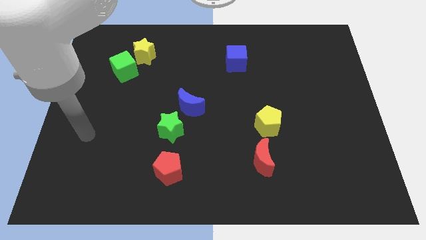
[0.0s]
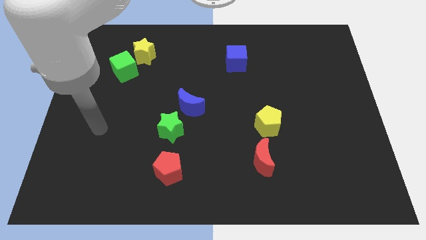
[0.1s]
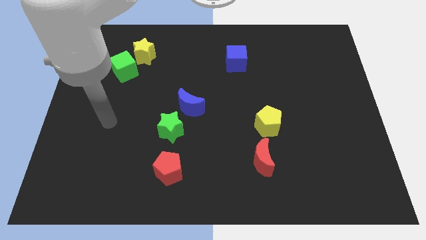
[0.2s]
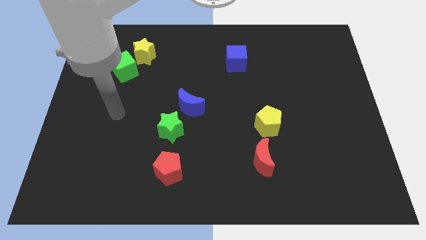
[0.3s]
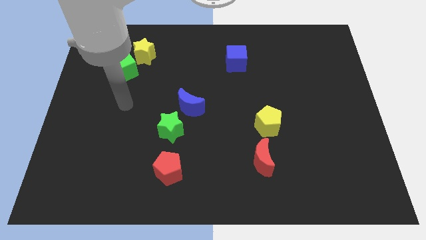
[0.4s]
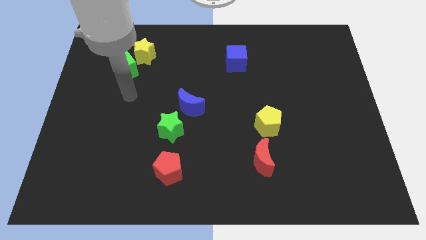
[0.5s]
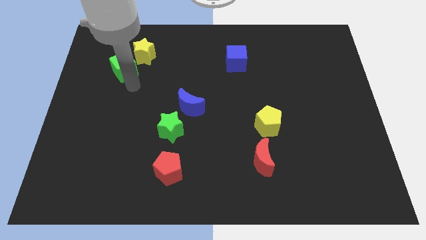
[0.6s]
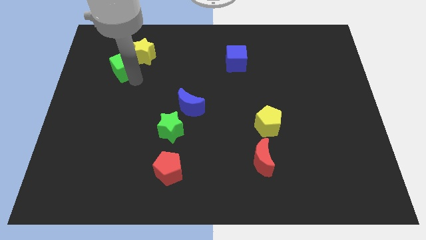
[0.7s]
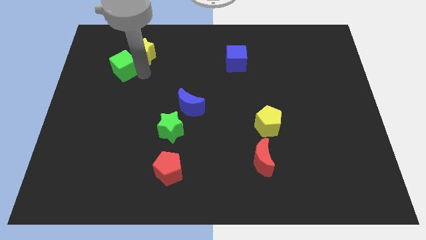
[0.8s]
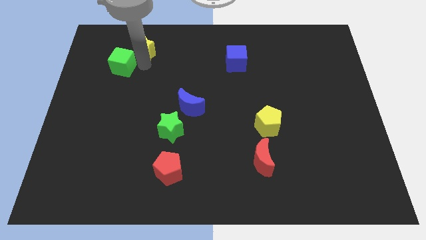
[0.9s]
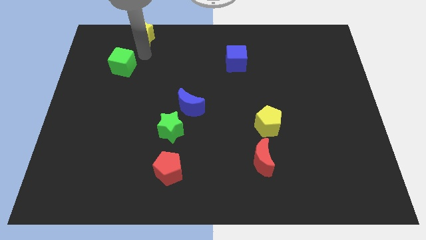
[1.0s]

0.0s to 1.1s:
pull the green cube apart from the yellow star

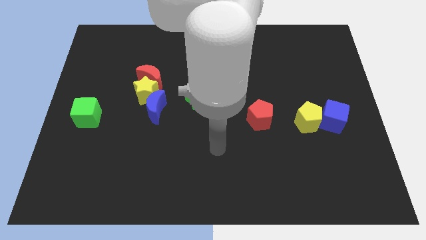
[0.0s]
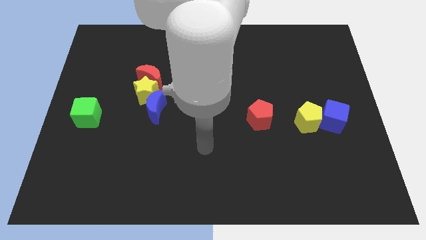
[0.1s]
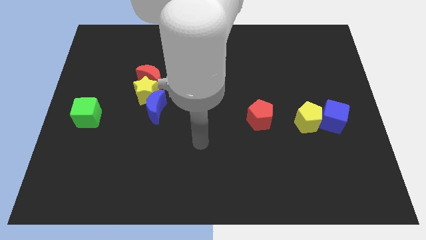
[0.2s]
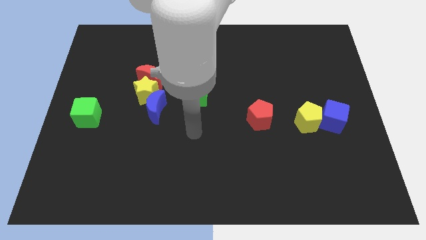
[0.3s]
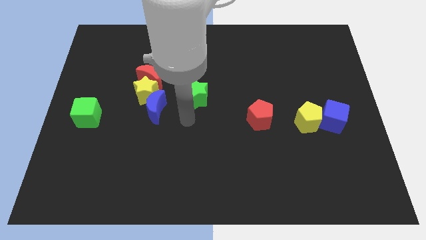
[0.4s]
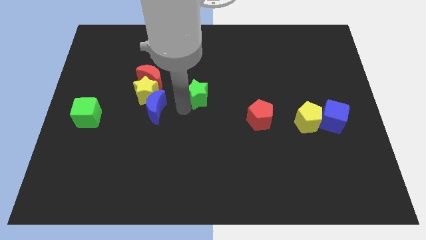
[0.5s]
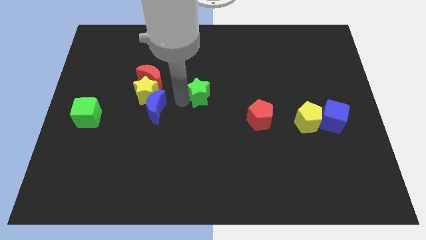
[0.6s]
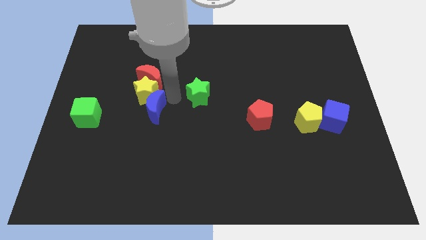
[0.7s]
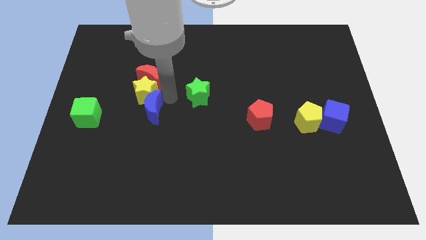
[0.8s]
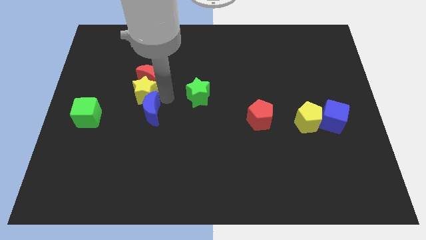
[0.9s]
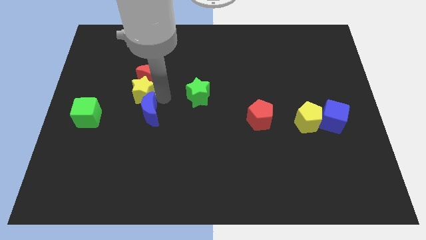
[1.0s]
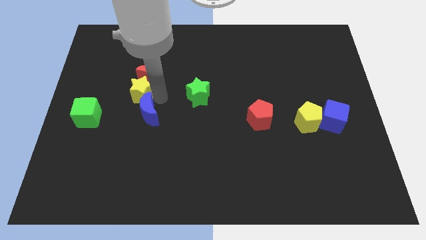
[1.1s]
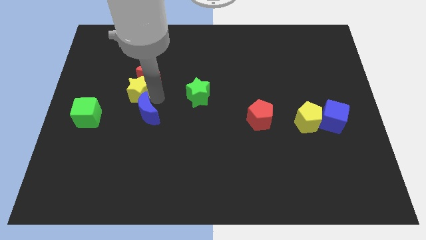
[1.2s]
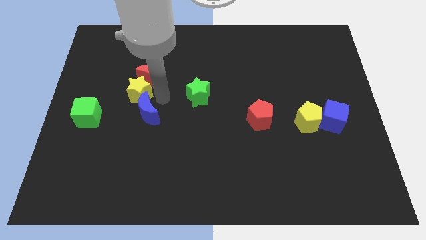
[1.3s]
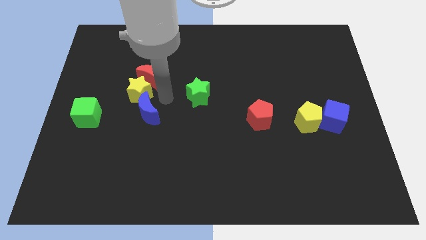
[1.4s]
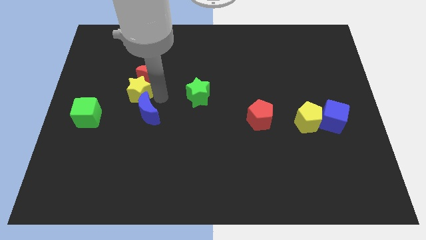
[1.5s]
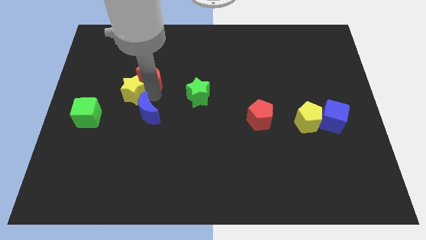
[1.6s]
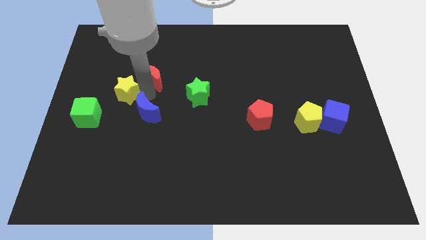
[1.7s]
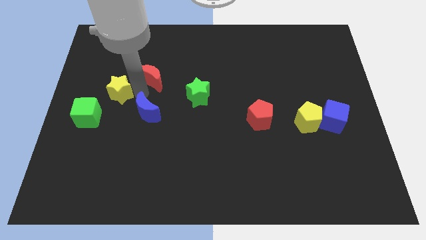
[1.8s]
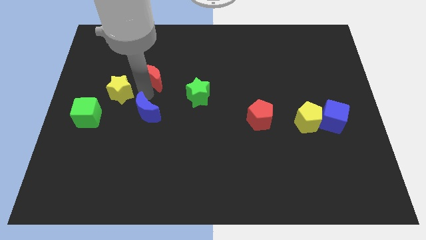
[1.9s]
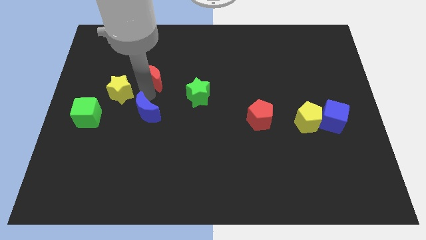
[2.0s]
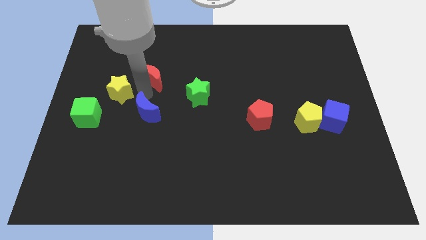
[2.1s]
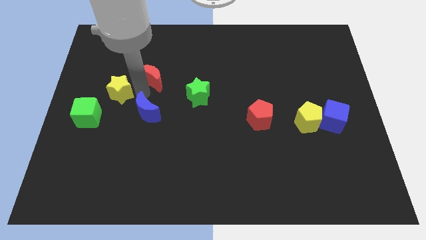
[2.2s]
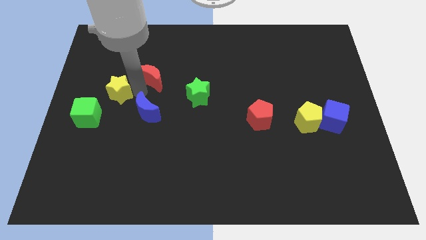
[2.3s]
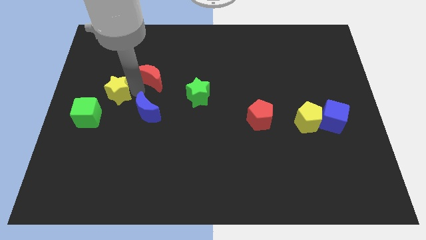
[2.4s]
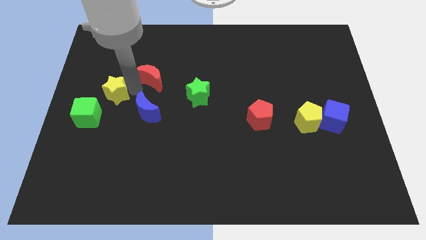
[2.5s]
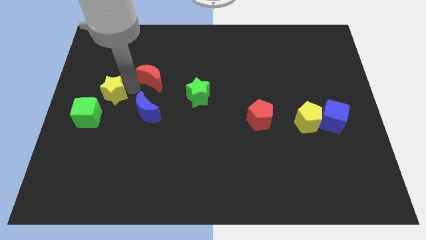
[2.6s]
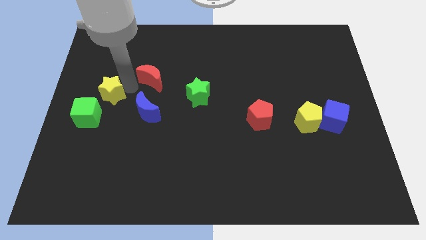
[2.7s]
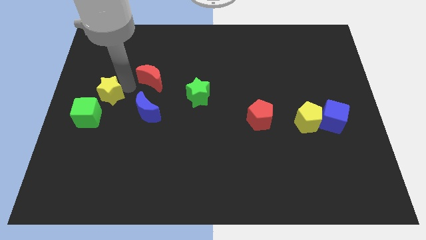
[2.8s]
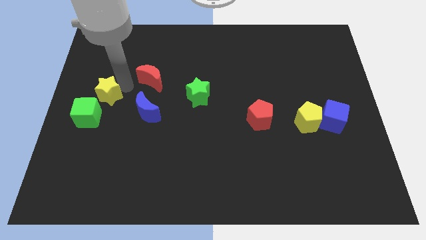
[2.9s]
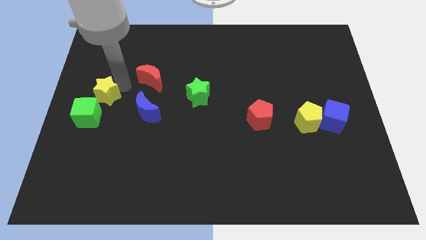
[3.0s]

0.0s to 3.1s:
separate the yellow star from the red moon and blue moon

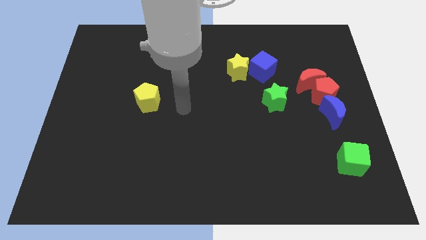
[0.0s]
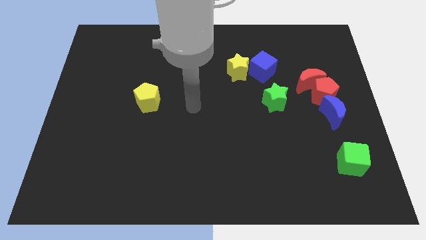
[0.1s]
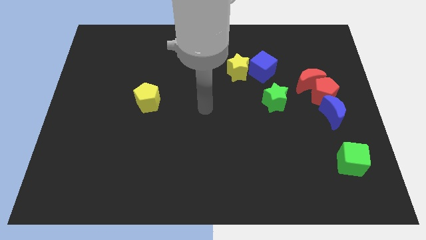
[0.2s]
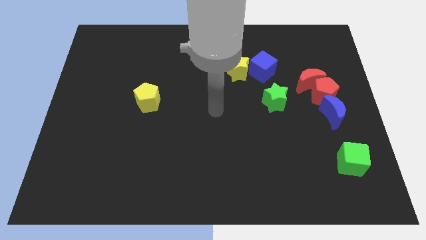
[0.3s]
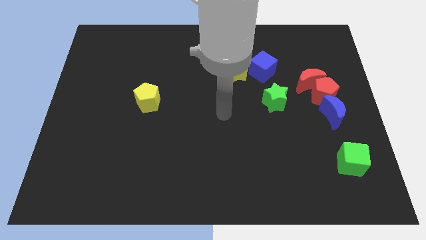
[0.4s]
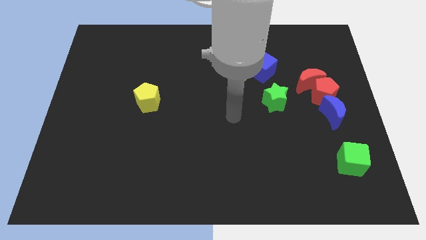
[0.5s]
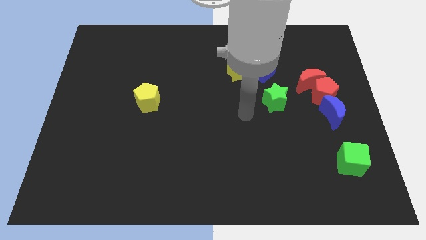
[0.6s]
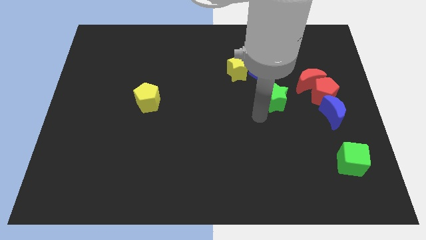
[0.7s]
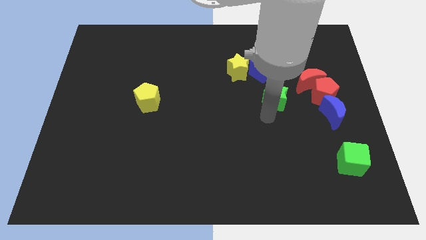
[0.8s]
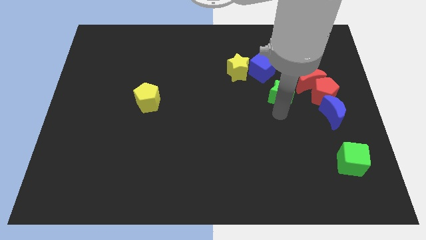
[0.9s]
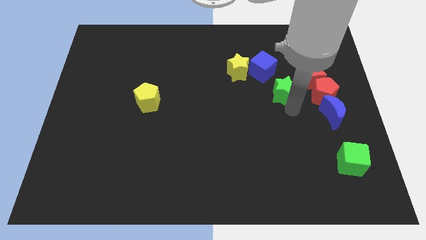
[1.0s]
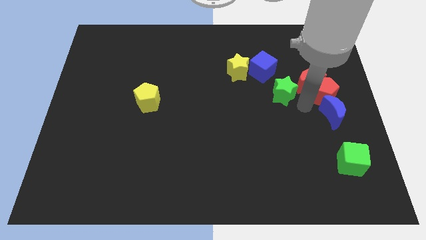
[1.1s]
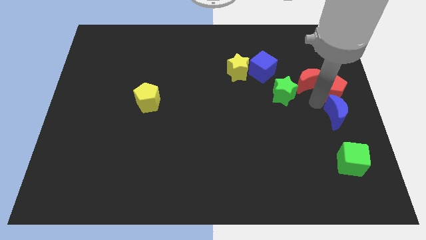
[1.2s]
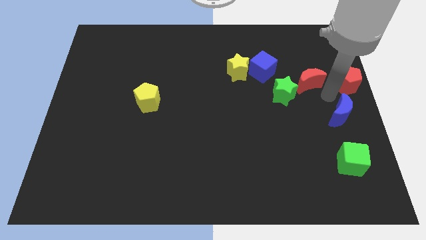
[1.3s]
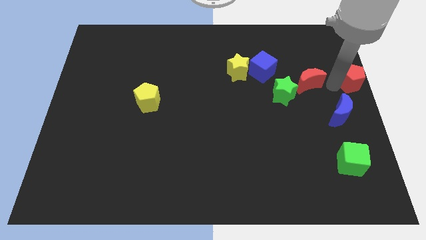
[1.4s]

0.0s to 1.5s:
move the red moon away from the red pentagon

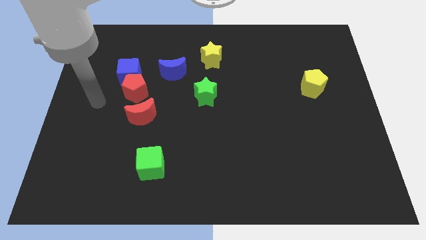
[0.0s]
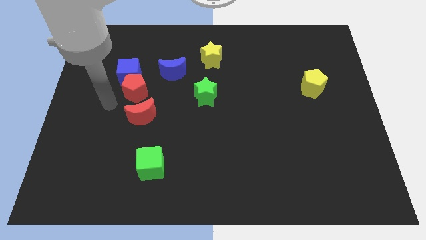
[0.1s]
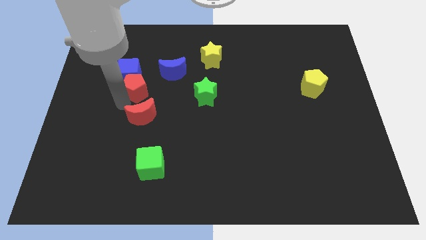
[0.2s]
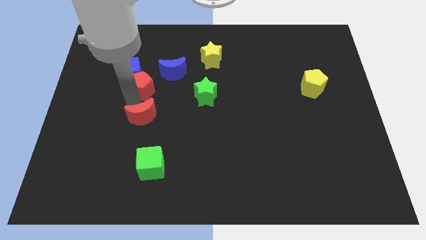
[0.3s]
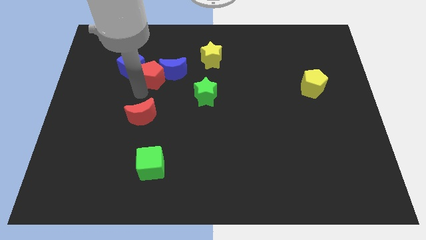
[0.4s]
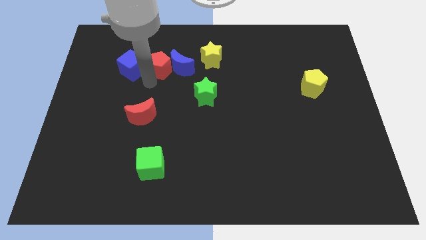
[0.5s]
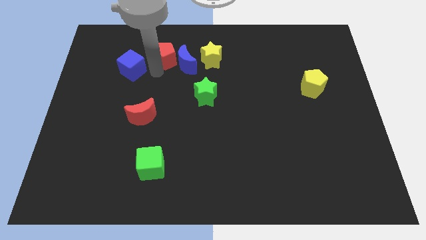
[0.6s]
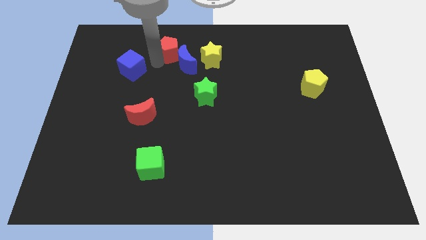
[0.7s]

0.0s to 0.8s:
pull the blue cube apart from the red pentagon

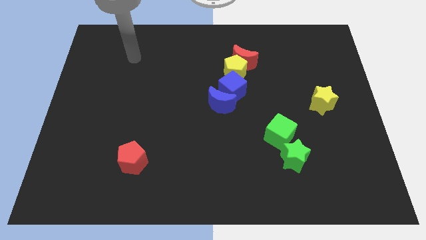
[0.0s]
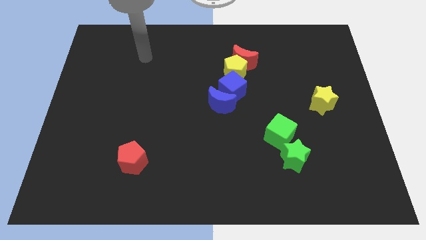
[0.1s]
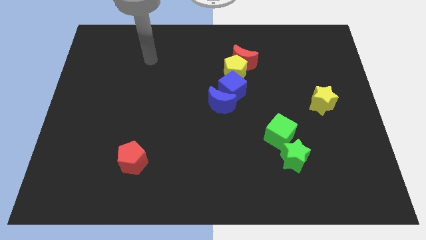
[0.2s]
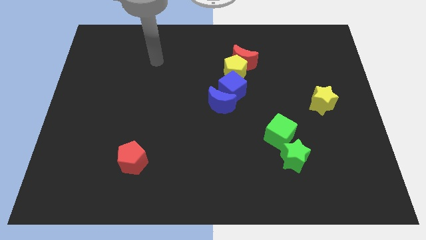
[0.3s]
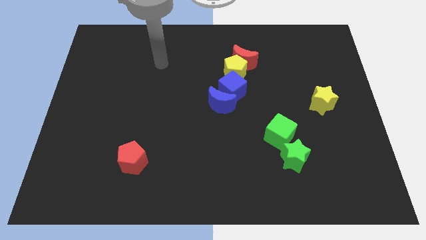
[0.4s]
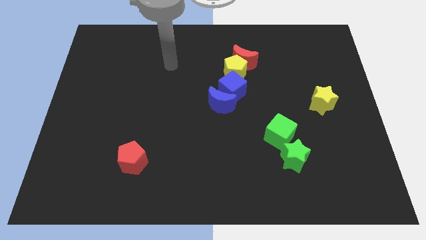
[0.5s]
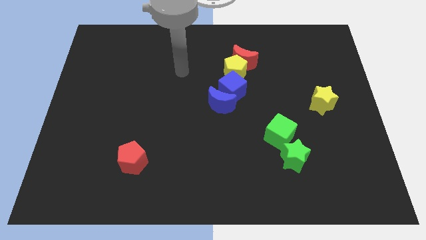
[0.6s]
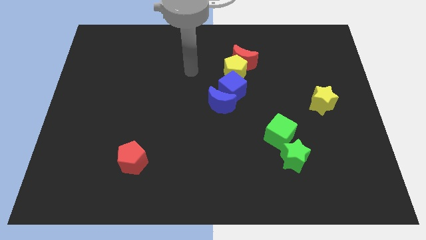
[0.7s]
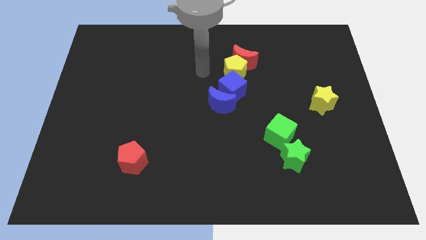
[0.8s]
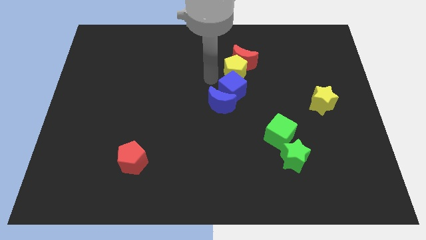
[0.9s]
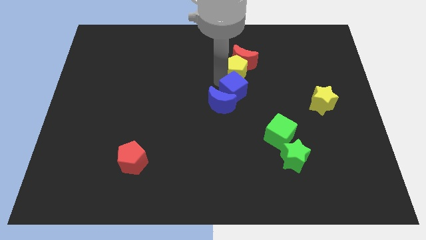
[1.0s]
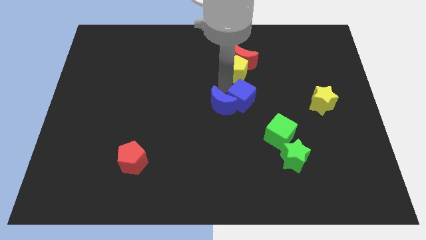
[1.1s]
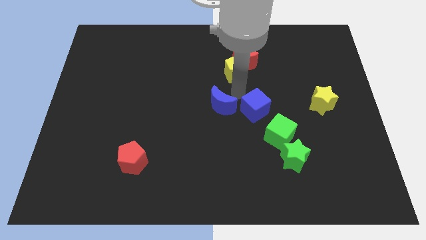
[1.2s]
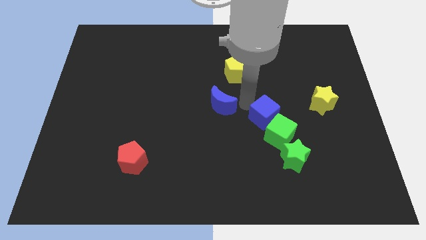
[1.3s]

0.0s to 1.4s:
move the blue moon away from the blue cube

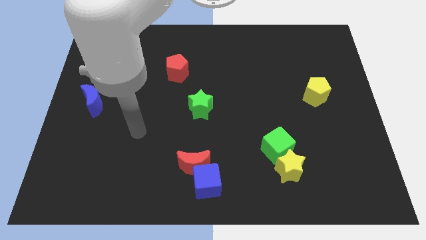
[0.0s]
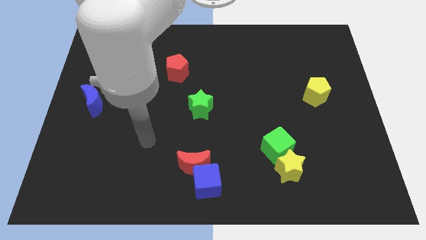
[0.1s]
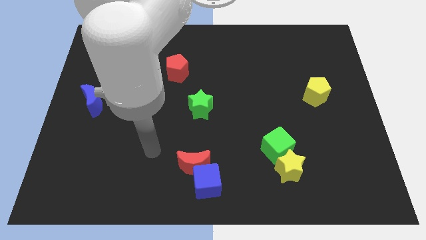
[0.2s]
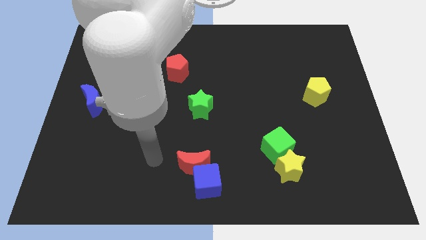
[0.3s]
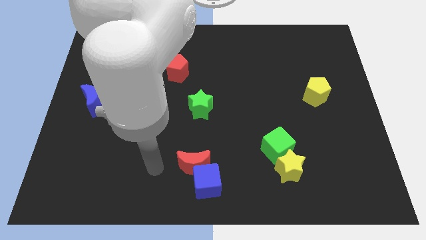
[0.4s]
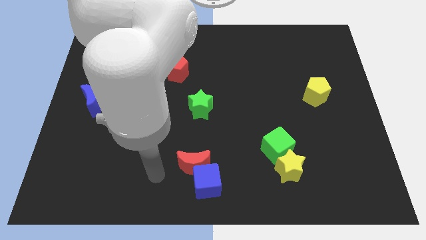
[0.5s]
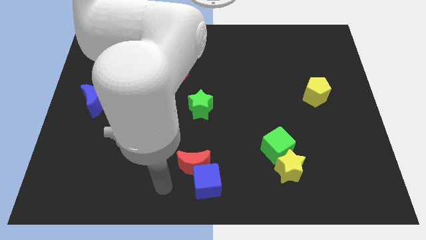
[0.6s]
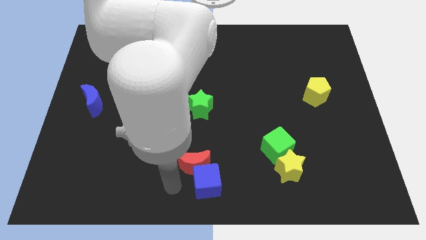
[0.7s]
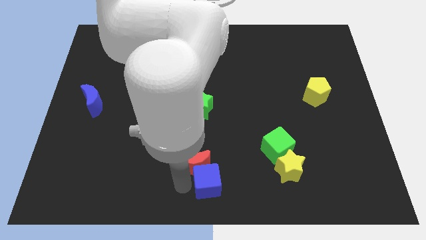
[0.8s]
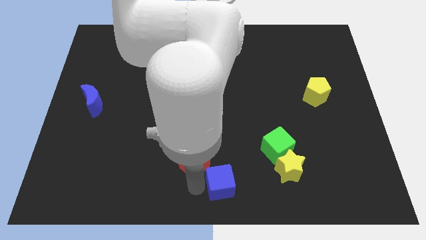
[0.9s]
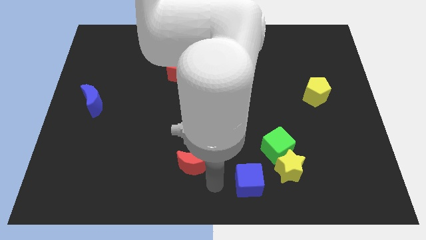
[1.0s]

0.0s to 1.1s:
pull the red moon apart from the blue cube

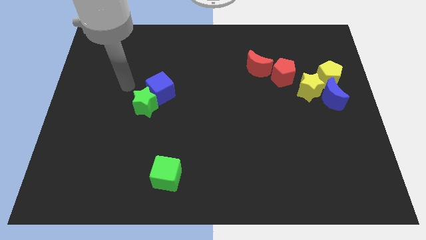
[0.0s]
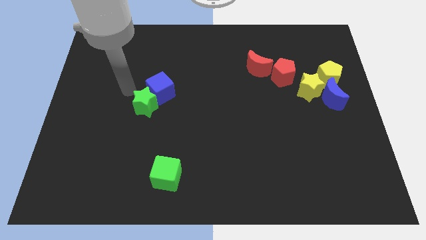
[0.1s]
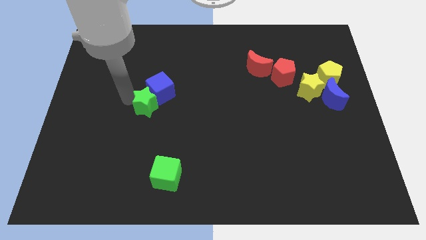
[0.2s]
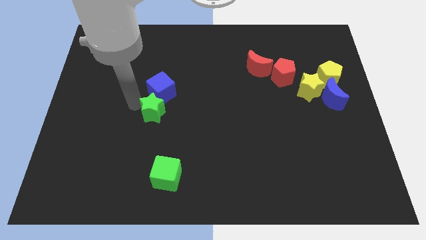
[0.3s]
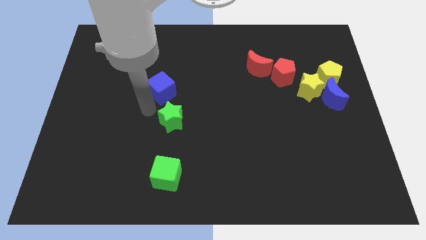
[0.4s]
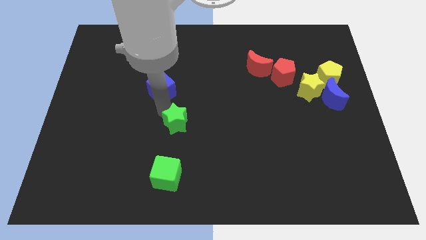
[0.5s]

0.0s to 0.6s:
move the blue cube away from the green star
